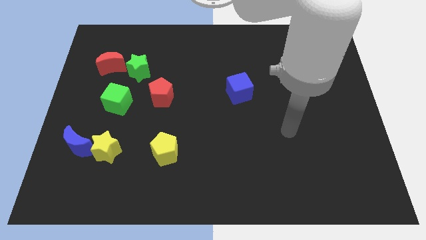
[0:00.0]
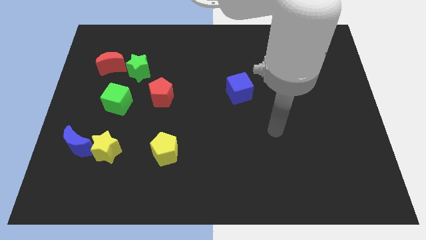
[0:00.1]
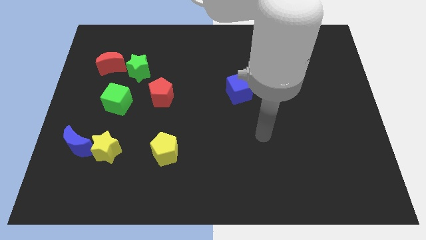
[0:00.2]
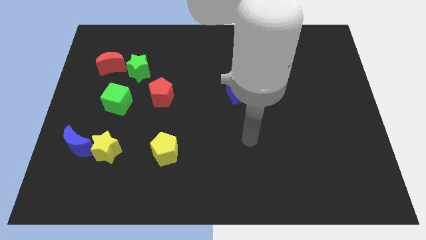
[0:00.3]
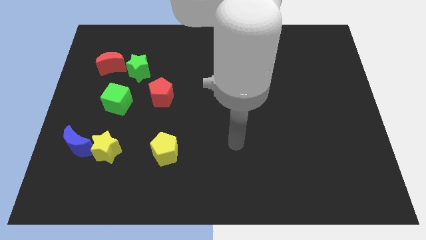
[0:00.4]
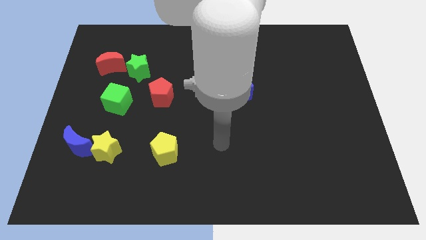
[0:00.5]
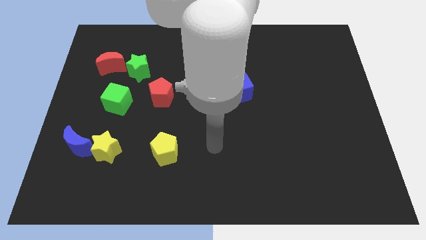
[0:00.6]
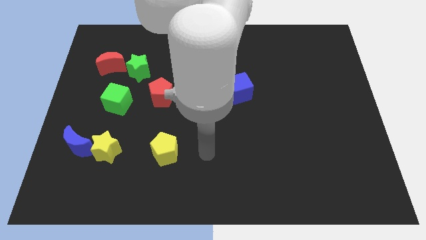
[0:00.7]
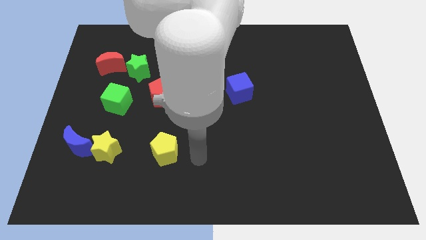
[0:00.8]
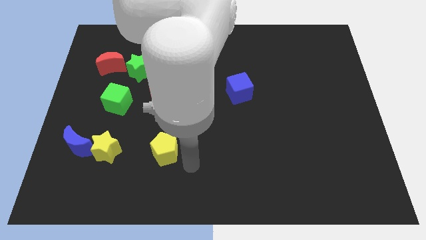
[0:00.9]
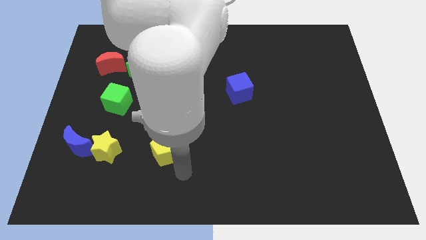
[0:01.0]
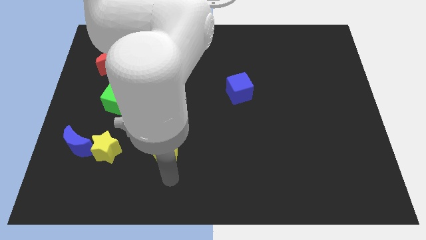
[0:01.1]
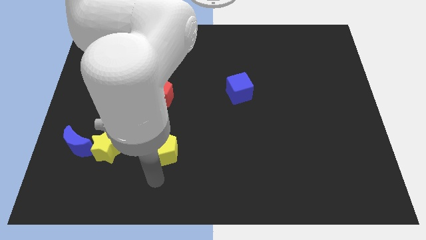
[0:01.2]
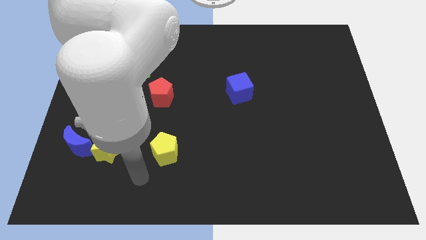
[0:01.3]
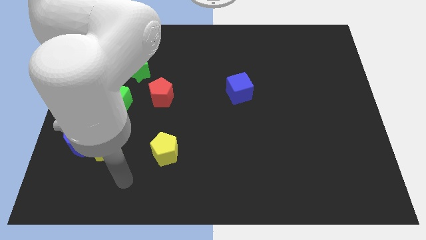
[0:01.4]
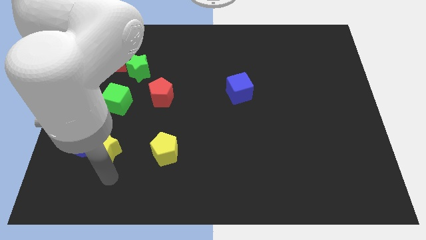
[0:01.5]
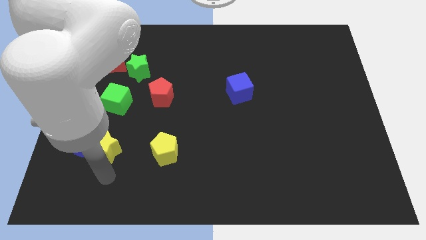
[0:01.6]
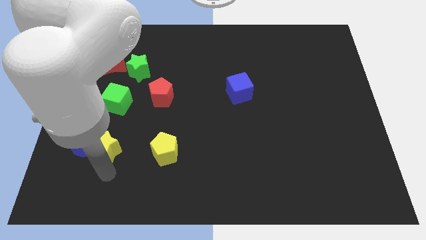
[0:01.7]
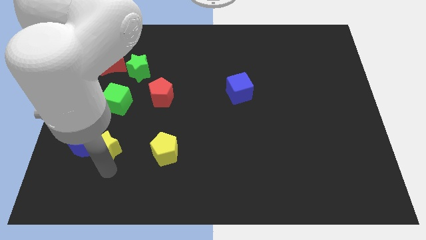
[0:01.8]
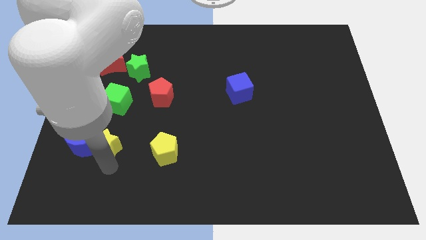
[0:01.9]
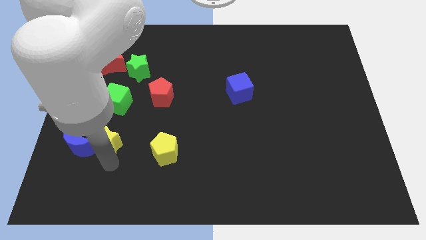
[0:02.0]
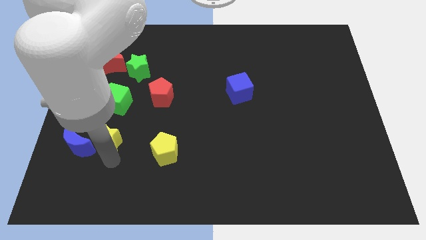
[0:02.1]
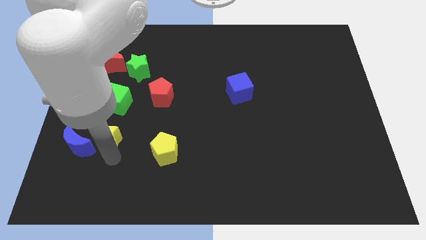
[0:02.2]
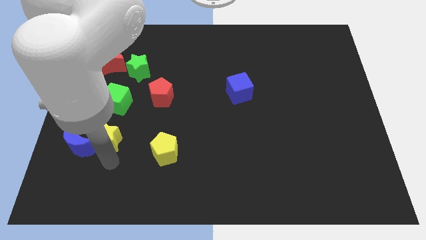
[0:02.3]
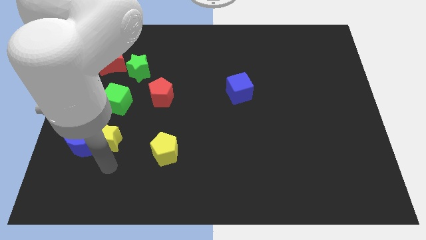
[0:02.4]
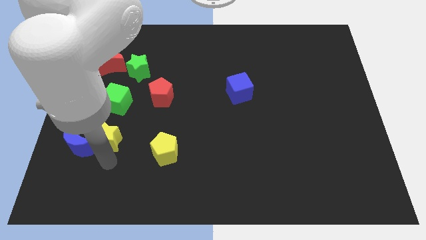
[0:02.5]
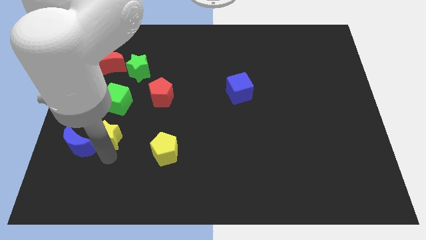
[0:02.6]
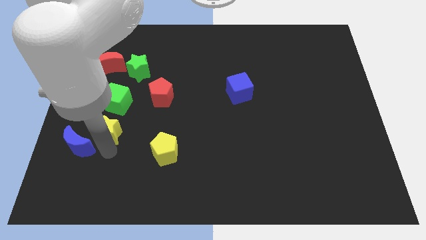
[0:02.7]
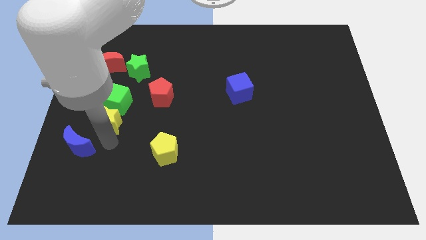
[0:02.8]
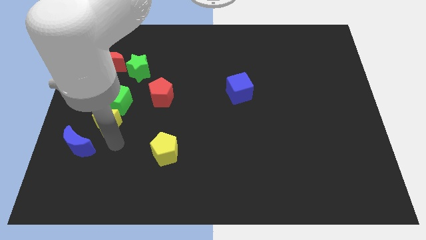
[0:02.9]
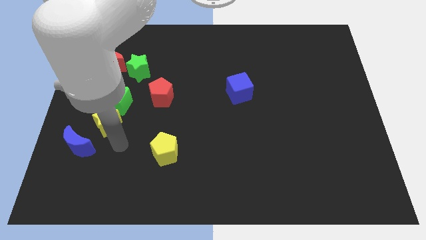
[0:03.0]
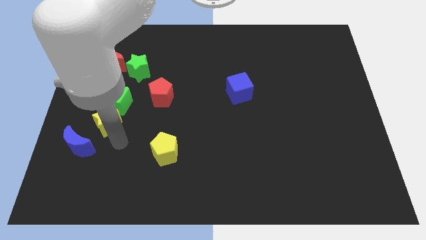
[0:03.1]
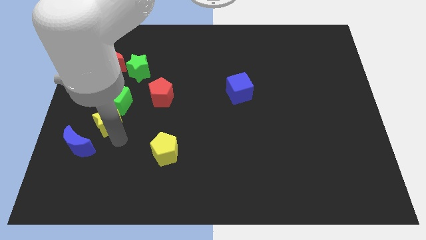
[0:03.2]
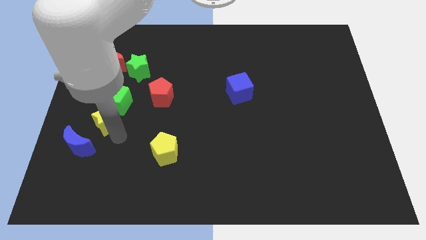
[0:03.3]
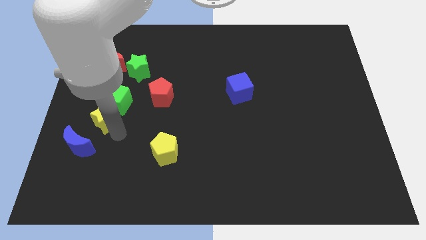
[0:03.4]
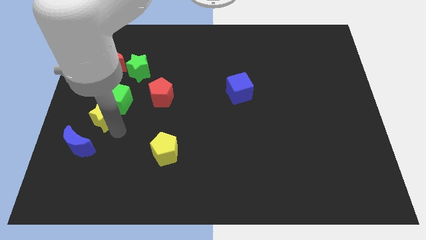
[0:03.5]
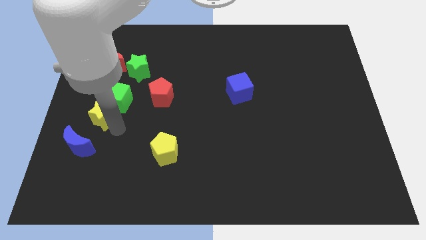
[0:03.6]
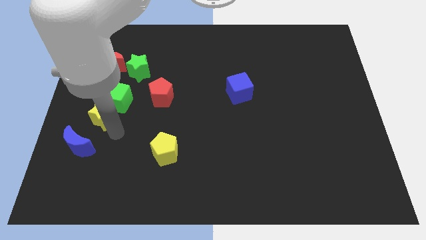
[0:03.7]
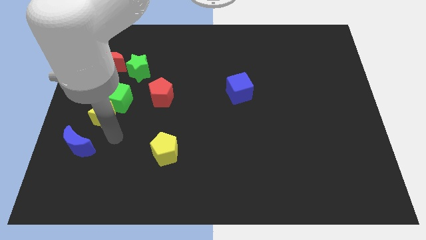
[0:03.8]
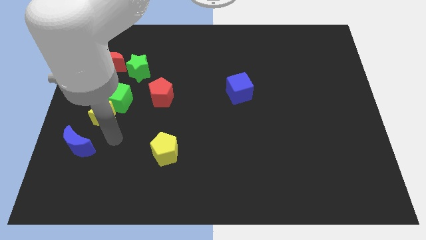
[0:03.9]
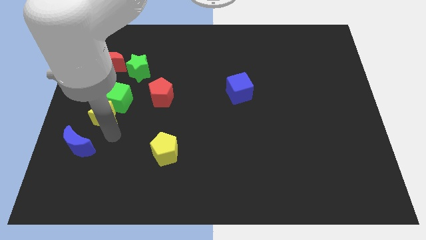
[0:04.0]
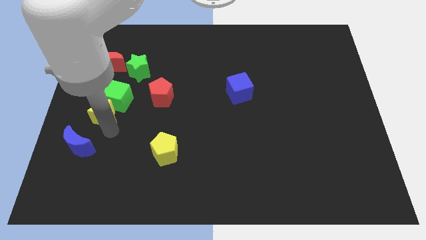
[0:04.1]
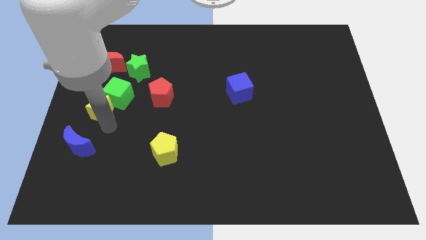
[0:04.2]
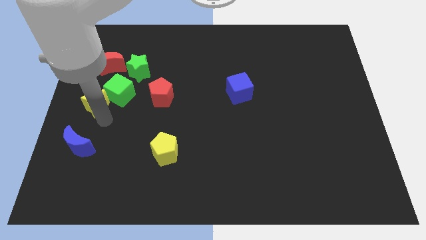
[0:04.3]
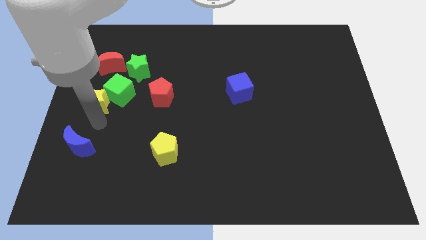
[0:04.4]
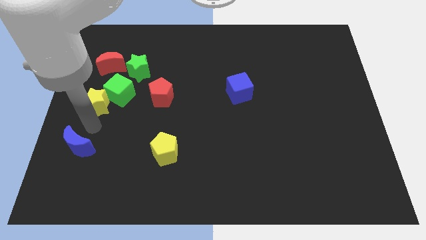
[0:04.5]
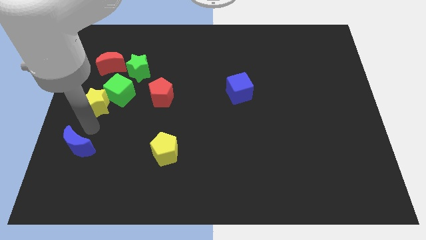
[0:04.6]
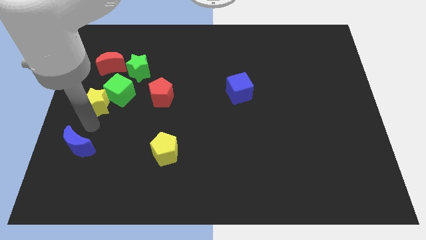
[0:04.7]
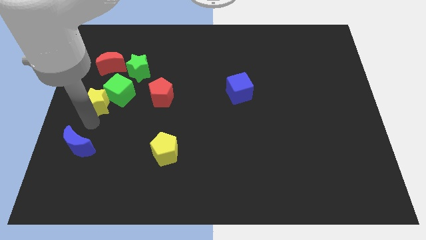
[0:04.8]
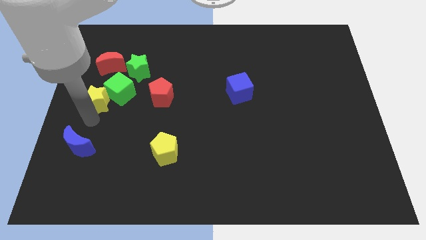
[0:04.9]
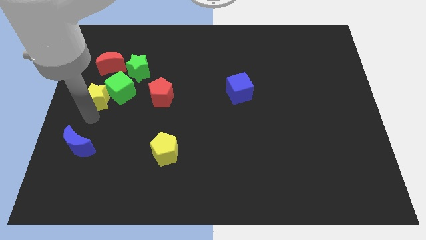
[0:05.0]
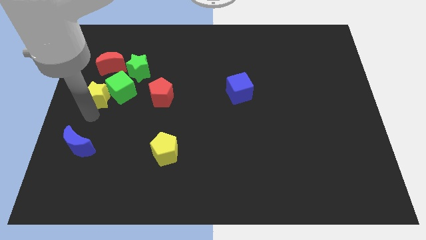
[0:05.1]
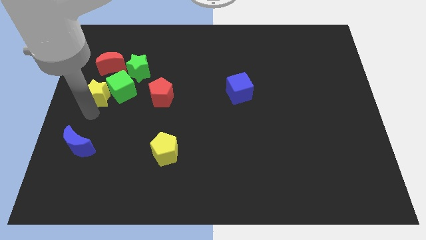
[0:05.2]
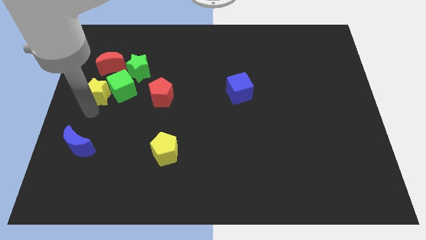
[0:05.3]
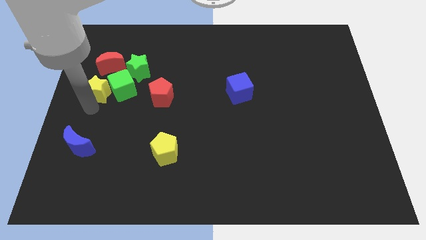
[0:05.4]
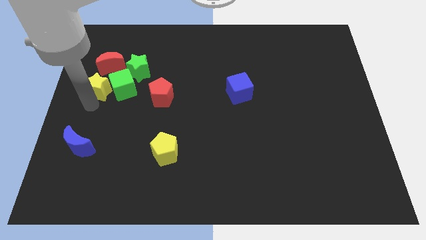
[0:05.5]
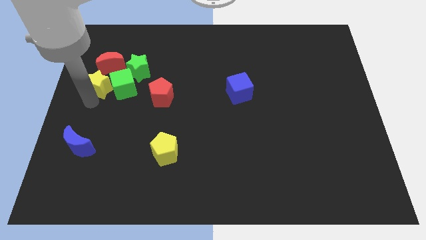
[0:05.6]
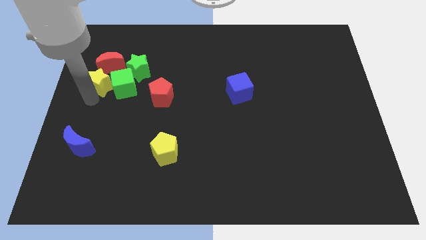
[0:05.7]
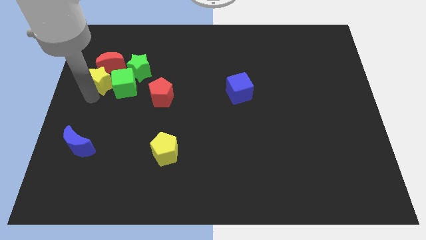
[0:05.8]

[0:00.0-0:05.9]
push the yellow star close to the red moon

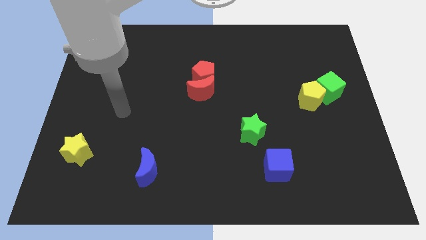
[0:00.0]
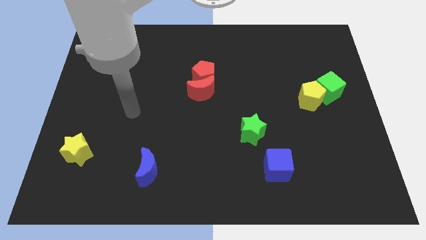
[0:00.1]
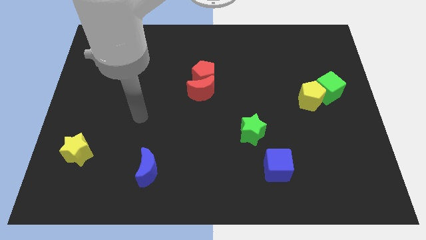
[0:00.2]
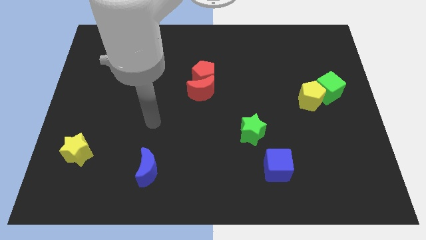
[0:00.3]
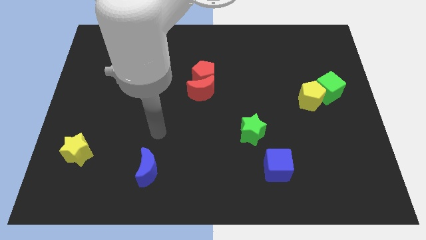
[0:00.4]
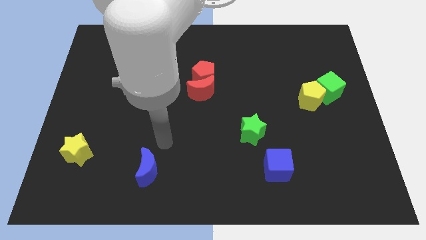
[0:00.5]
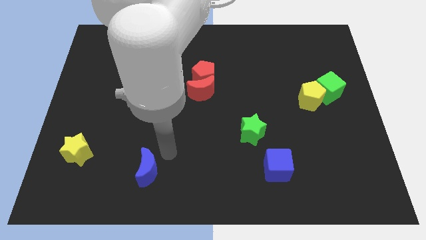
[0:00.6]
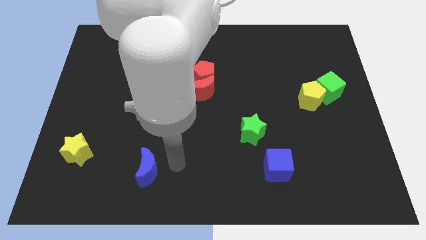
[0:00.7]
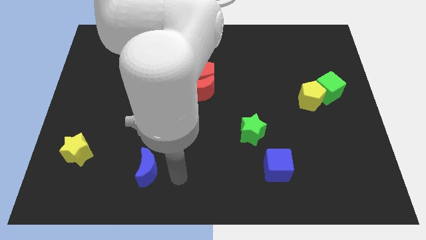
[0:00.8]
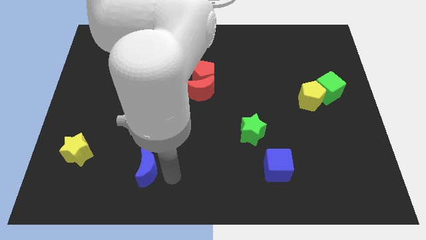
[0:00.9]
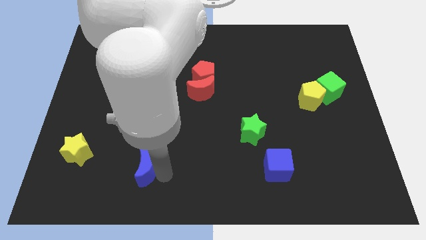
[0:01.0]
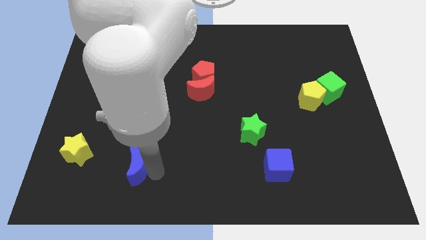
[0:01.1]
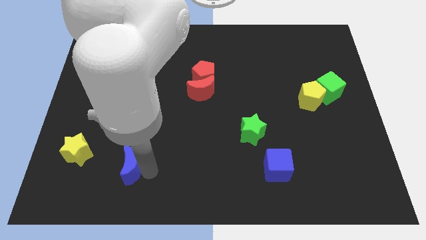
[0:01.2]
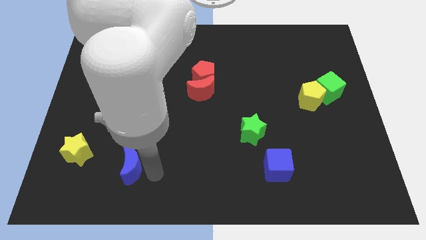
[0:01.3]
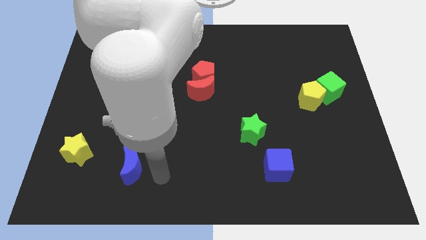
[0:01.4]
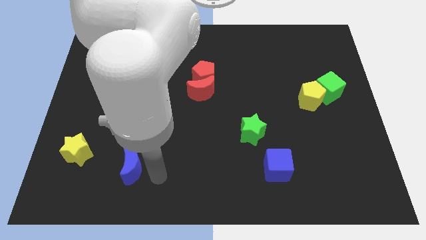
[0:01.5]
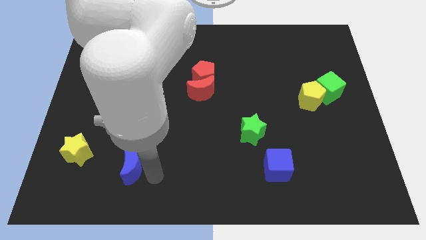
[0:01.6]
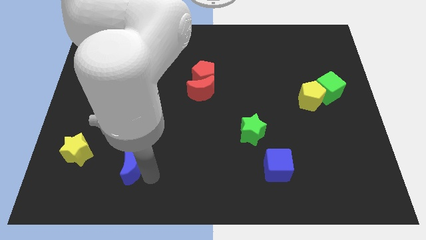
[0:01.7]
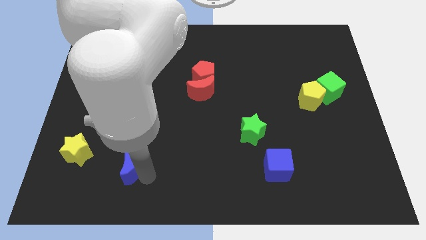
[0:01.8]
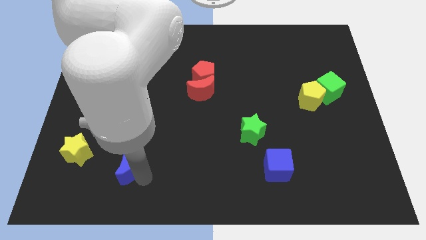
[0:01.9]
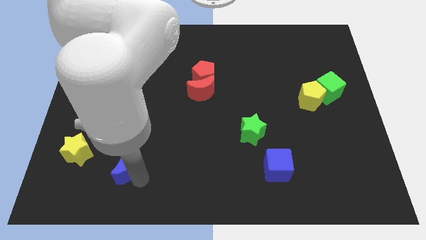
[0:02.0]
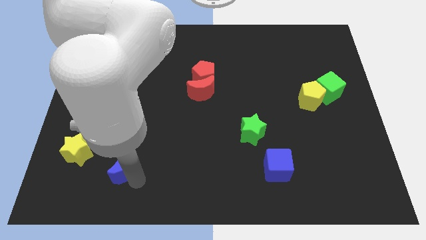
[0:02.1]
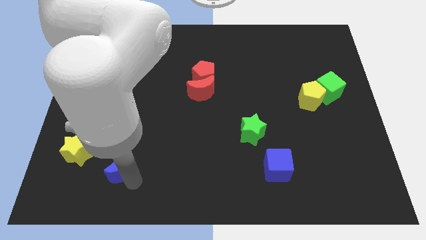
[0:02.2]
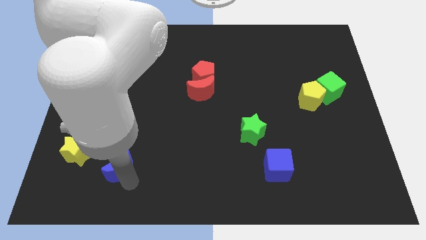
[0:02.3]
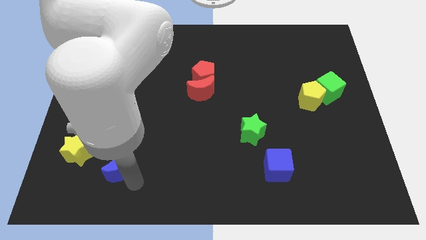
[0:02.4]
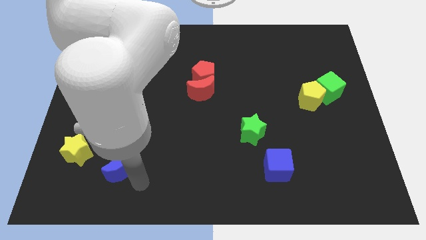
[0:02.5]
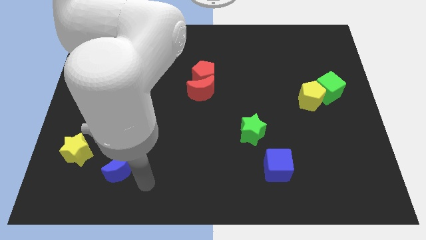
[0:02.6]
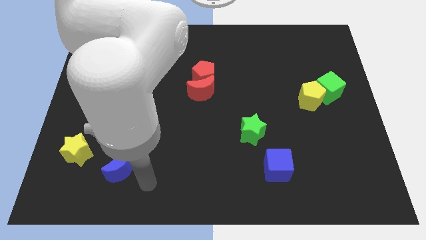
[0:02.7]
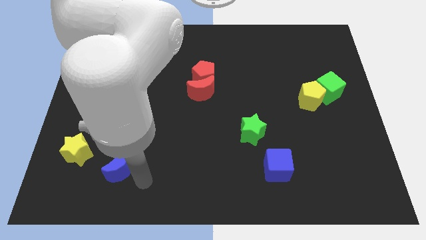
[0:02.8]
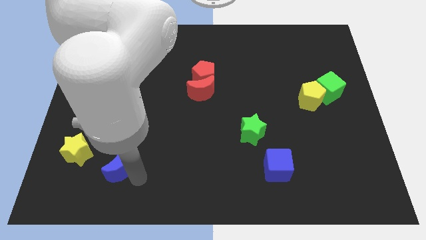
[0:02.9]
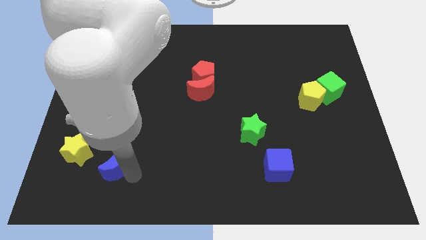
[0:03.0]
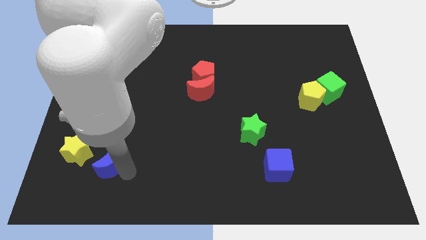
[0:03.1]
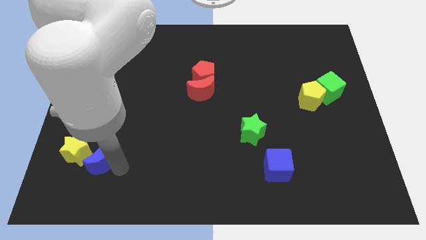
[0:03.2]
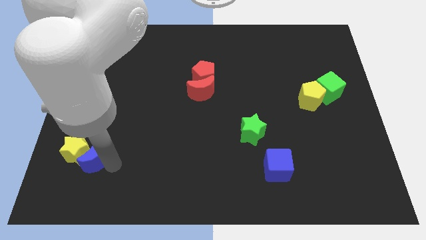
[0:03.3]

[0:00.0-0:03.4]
move the blue moon to the yellow star
